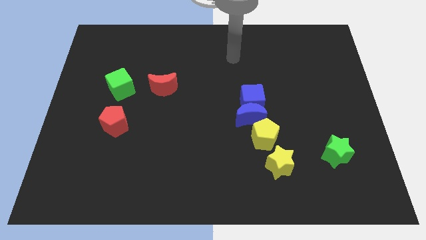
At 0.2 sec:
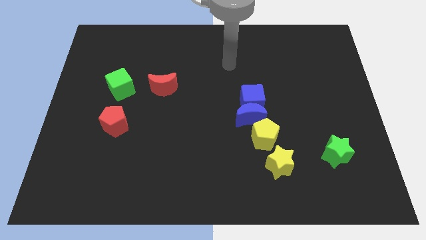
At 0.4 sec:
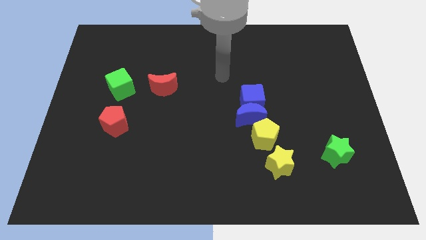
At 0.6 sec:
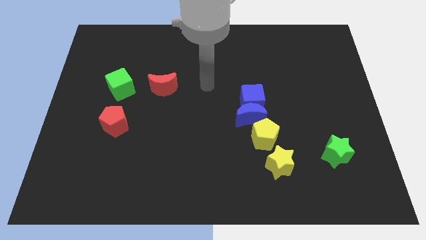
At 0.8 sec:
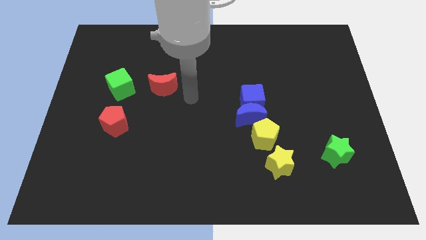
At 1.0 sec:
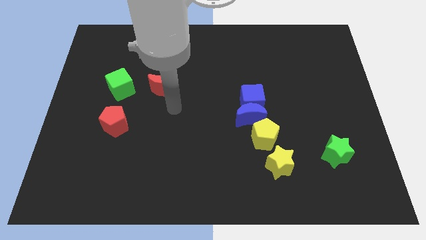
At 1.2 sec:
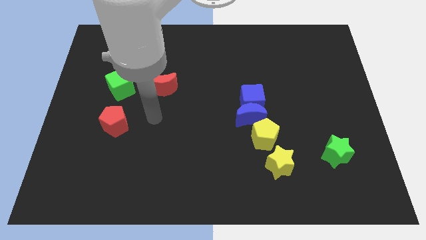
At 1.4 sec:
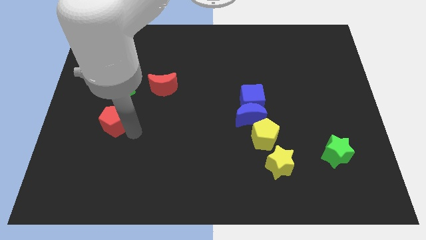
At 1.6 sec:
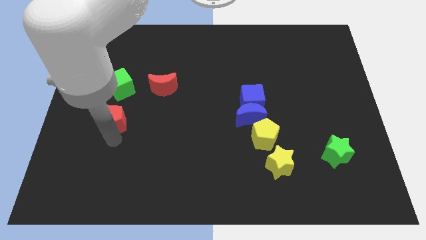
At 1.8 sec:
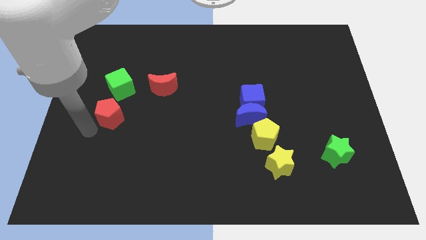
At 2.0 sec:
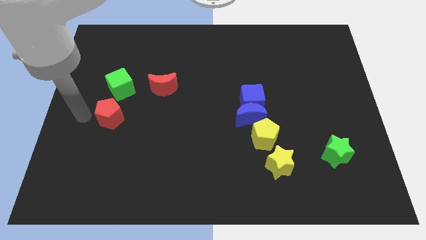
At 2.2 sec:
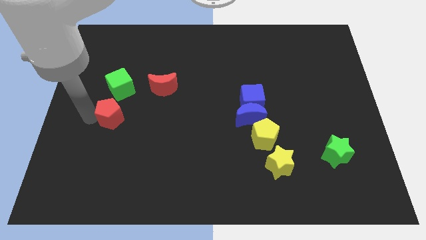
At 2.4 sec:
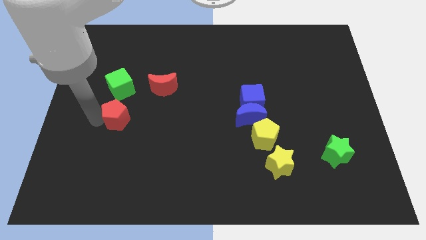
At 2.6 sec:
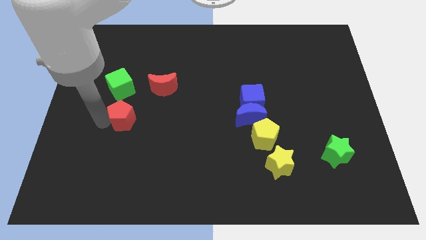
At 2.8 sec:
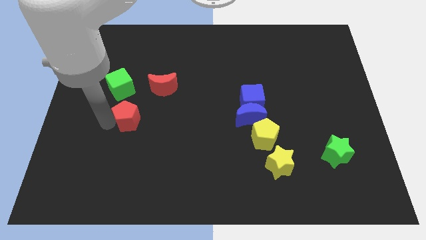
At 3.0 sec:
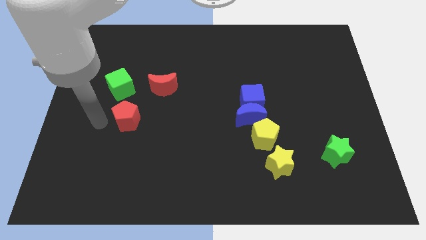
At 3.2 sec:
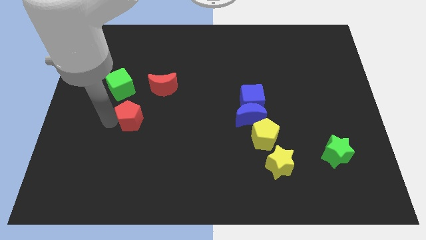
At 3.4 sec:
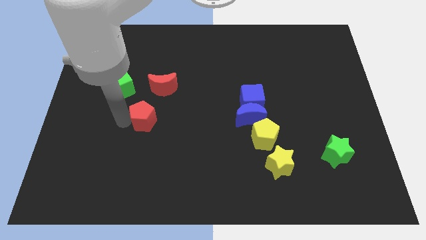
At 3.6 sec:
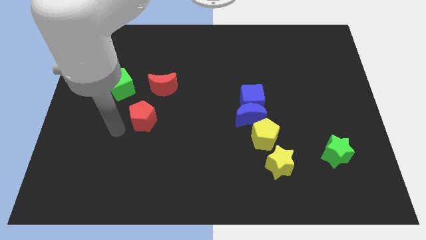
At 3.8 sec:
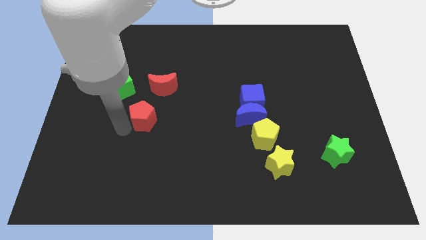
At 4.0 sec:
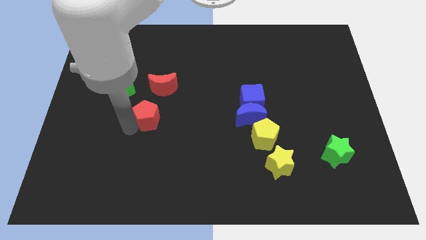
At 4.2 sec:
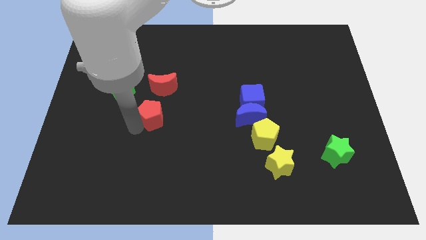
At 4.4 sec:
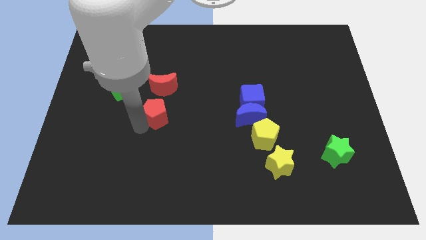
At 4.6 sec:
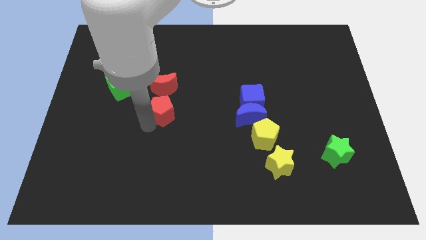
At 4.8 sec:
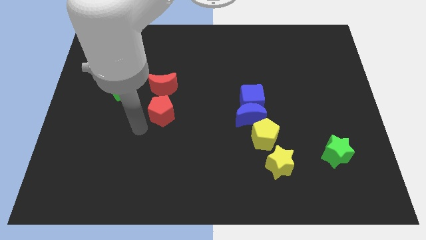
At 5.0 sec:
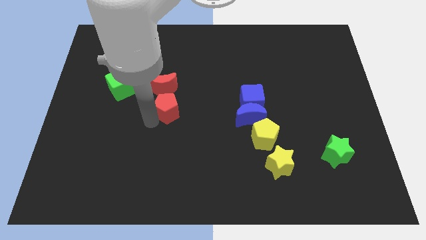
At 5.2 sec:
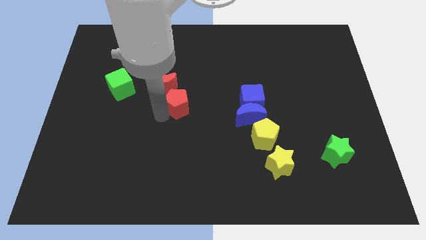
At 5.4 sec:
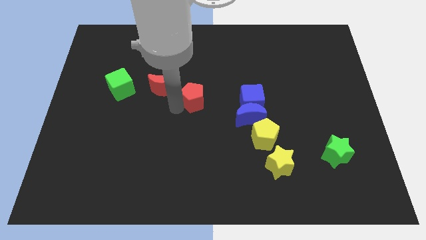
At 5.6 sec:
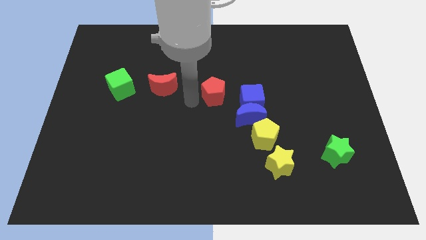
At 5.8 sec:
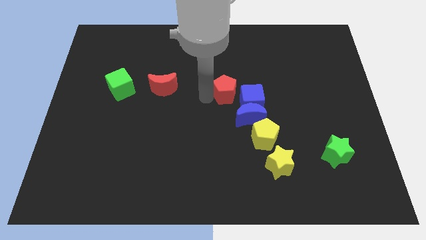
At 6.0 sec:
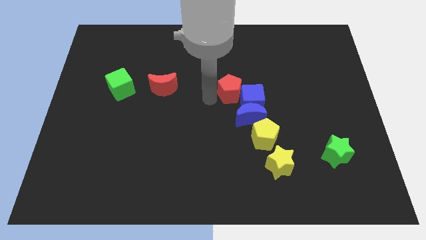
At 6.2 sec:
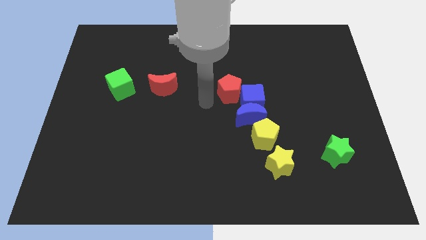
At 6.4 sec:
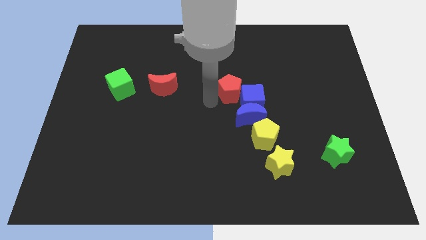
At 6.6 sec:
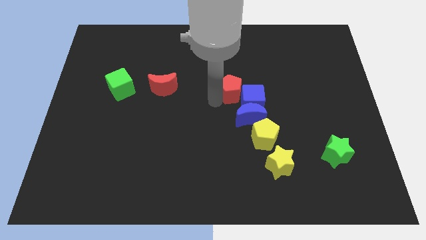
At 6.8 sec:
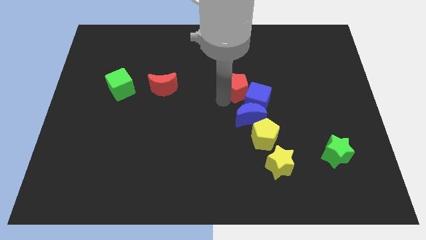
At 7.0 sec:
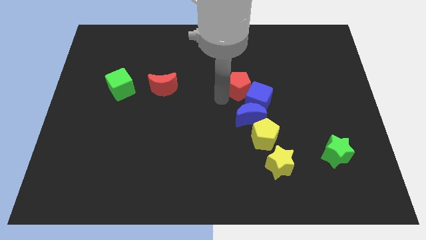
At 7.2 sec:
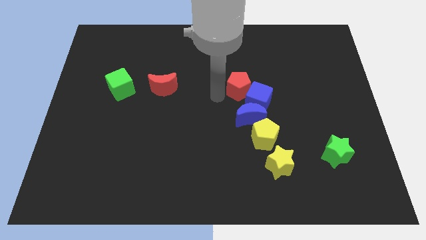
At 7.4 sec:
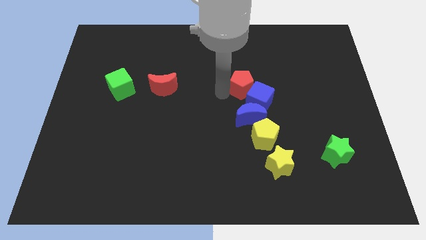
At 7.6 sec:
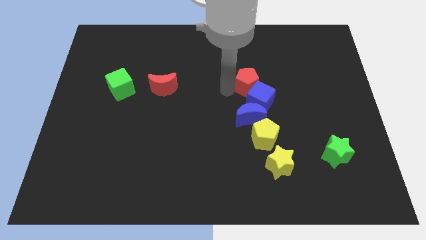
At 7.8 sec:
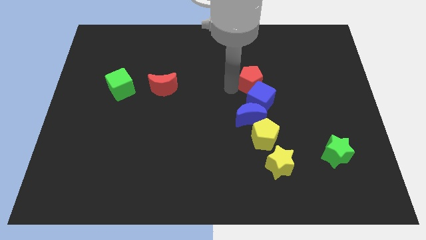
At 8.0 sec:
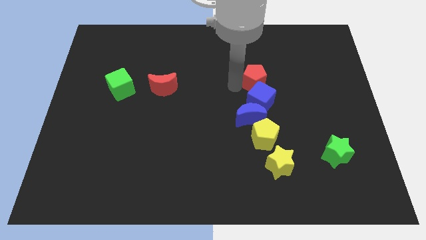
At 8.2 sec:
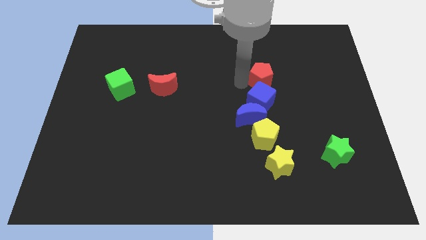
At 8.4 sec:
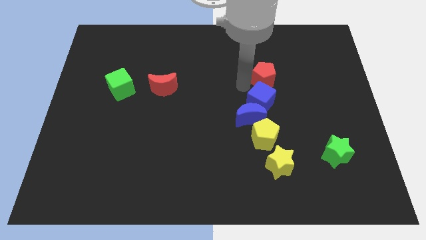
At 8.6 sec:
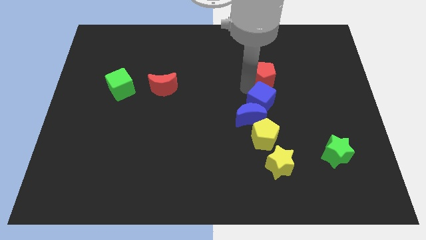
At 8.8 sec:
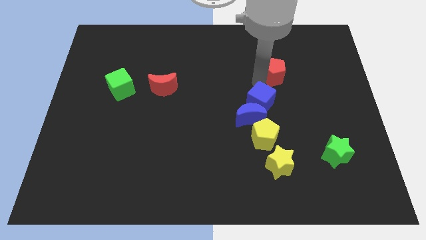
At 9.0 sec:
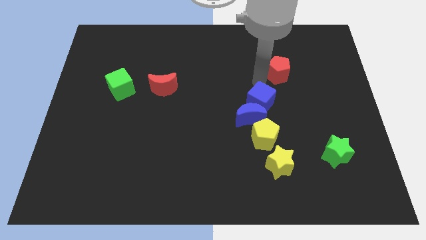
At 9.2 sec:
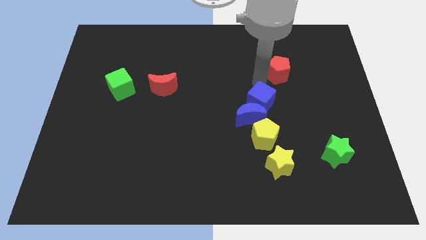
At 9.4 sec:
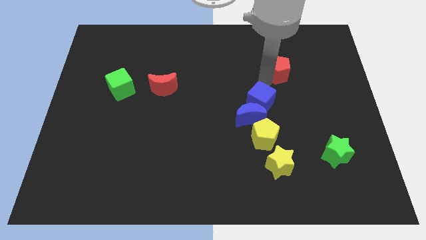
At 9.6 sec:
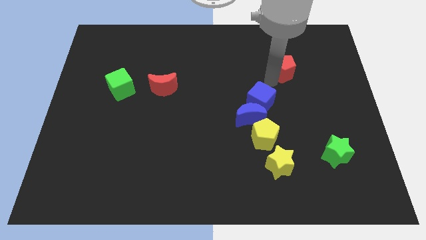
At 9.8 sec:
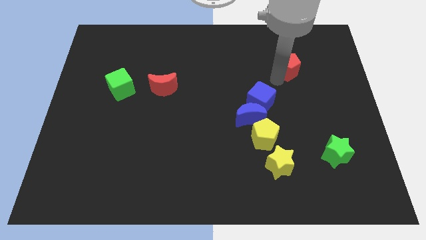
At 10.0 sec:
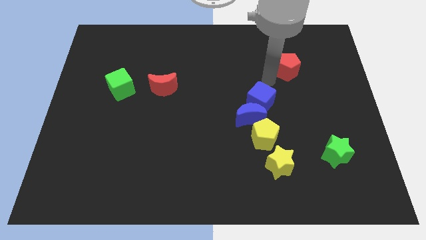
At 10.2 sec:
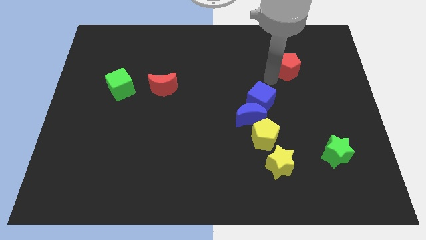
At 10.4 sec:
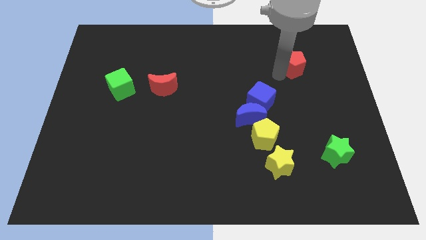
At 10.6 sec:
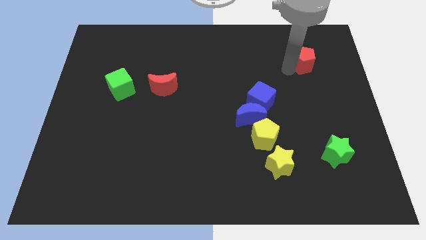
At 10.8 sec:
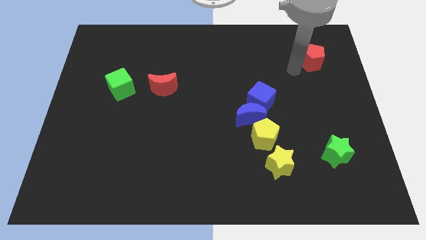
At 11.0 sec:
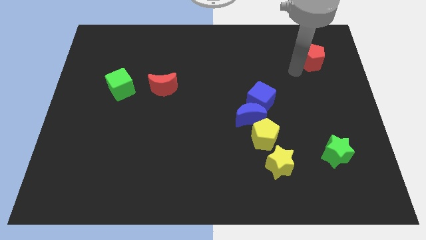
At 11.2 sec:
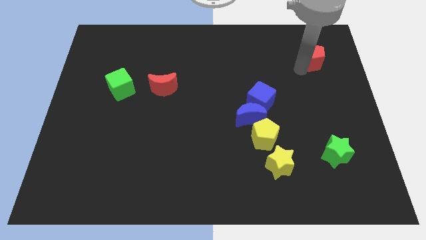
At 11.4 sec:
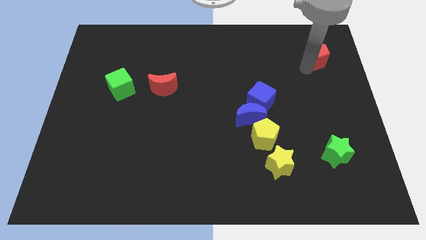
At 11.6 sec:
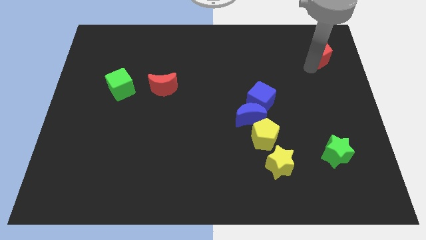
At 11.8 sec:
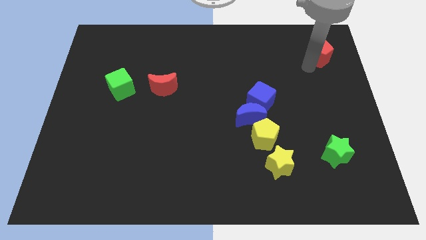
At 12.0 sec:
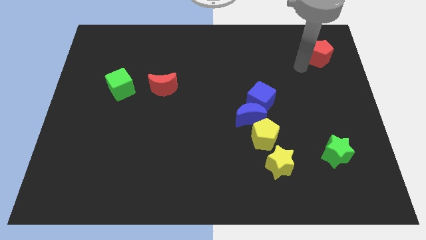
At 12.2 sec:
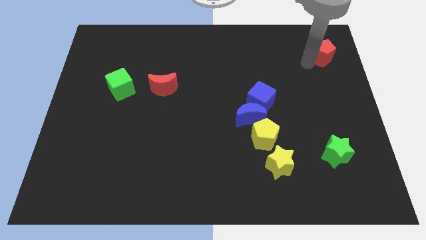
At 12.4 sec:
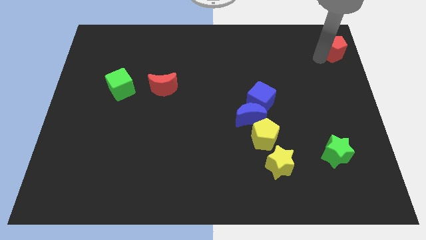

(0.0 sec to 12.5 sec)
slide the red pentagon to the top right

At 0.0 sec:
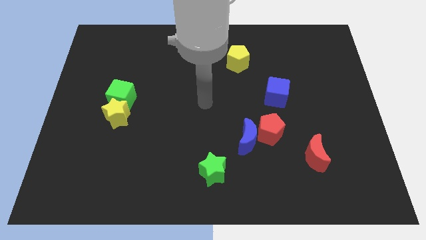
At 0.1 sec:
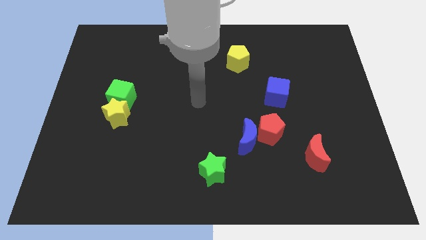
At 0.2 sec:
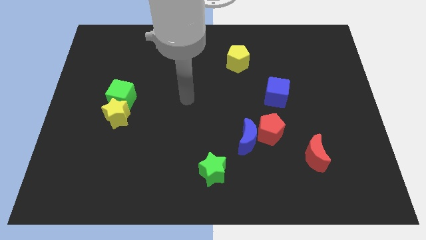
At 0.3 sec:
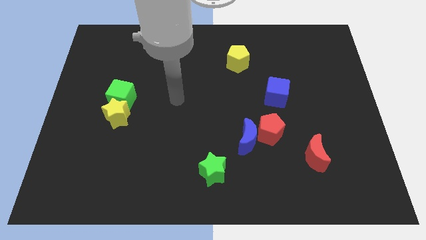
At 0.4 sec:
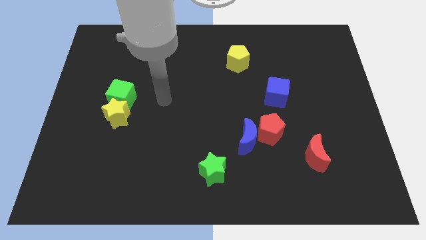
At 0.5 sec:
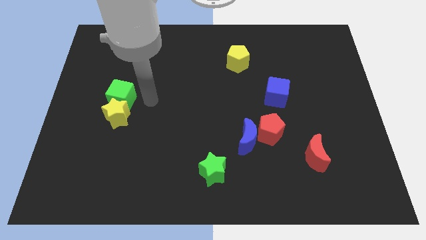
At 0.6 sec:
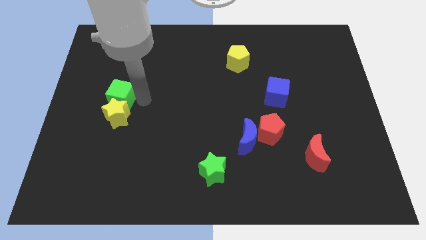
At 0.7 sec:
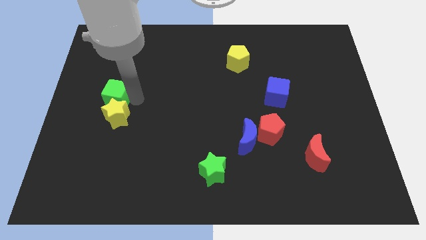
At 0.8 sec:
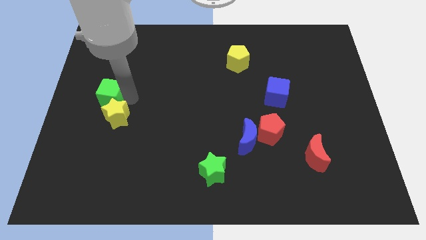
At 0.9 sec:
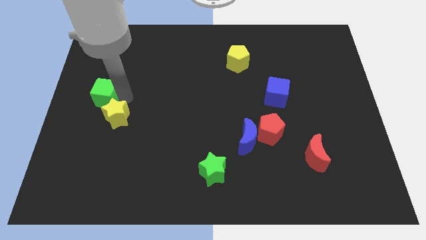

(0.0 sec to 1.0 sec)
slide the green cube to the left side
